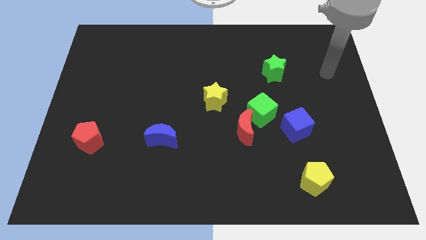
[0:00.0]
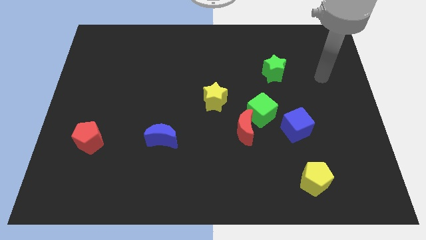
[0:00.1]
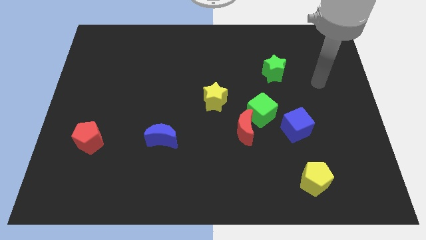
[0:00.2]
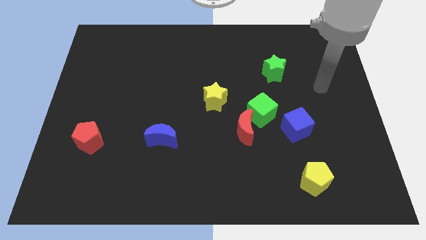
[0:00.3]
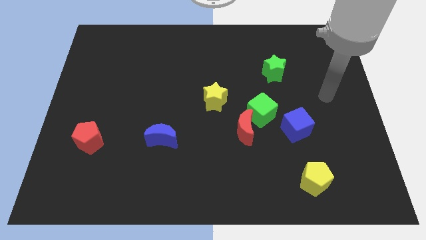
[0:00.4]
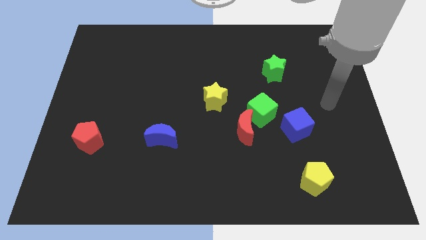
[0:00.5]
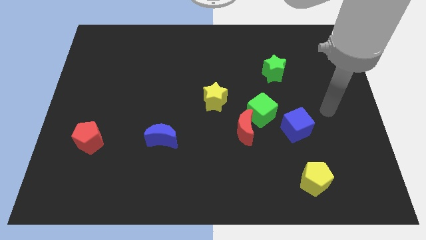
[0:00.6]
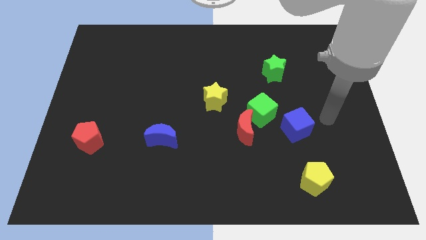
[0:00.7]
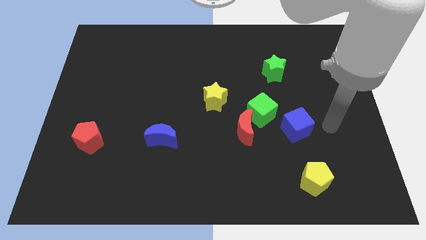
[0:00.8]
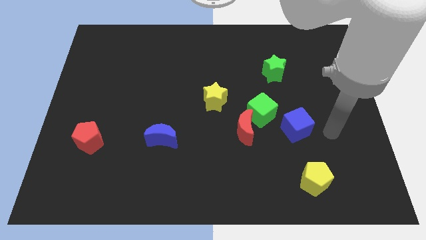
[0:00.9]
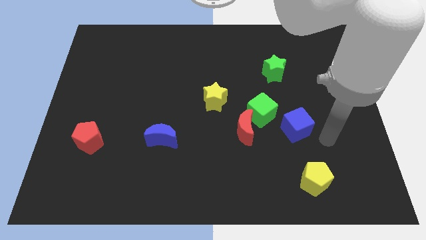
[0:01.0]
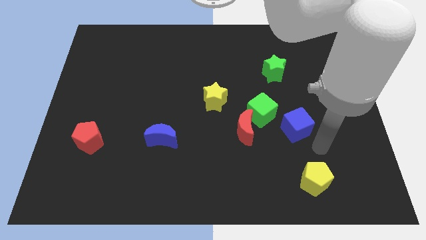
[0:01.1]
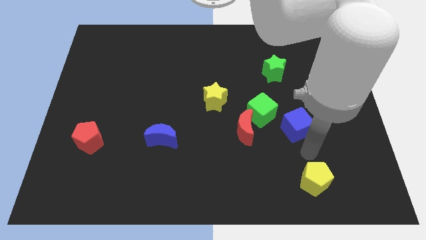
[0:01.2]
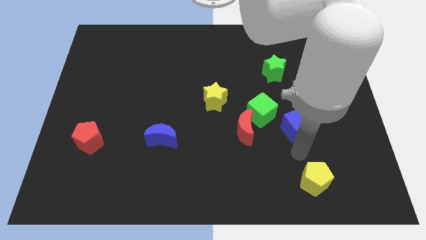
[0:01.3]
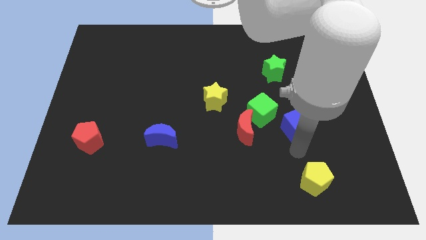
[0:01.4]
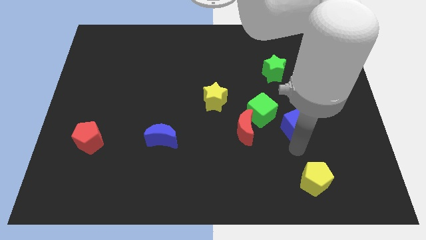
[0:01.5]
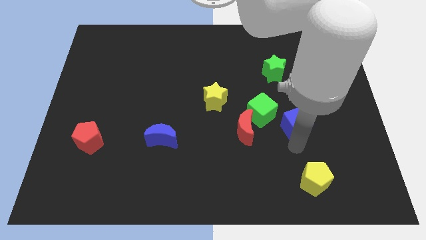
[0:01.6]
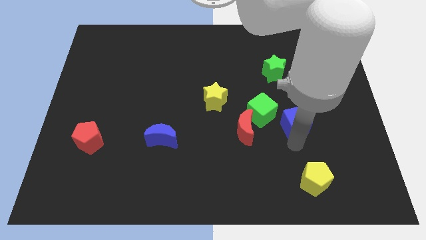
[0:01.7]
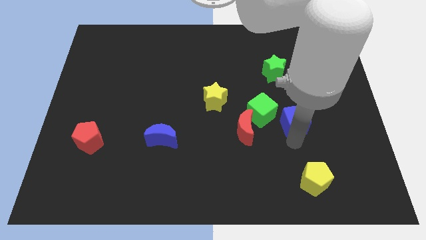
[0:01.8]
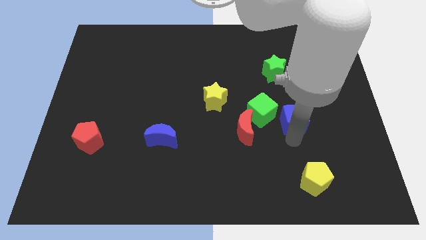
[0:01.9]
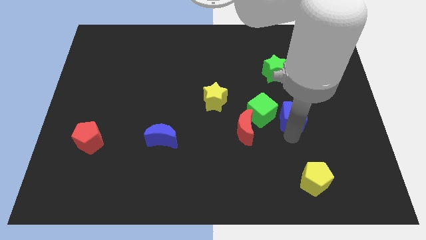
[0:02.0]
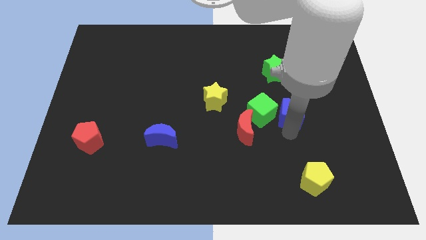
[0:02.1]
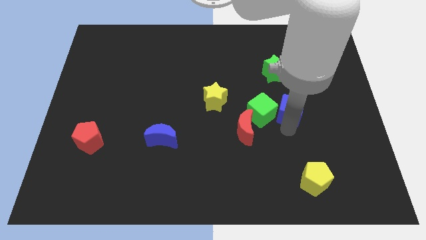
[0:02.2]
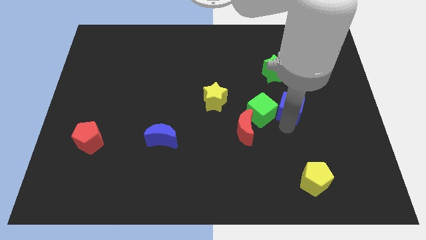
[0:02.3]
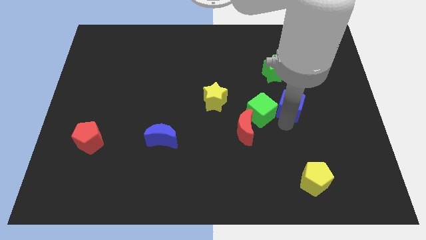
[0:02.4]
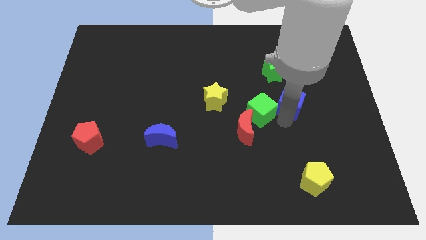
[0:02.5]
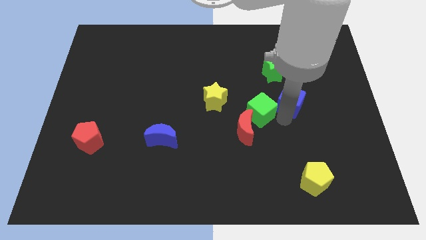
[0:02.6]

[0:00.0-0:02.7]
move the blue cube a little up

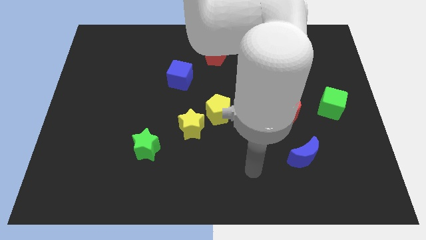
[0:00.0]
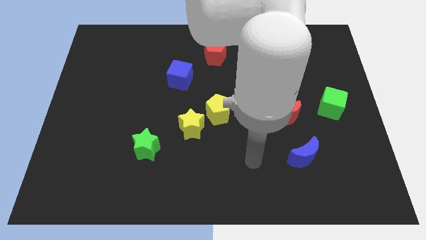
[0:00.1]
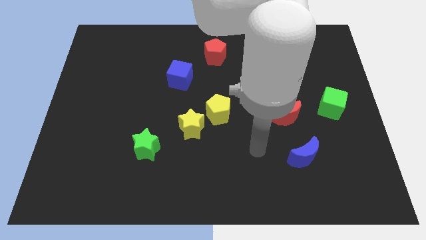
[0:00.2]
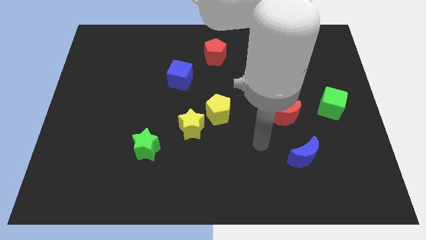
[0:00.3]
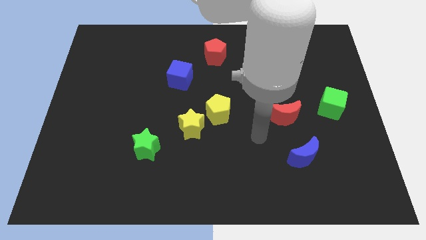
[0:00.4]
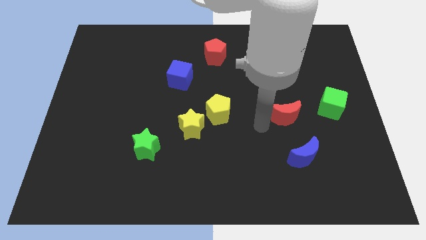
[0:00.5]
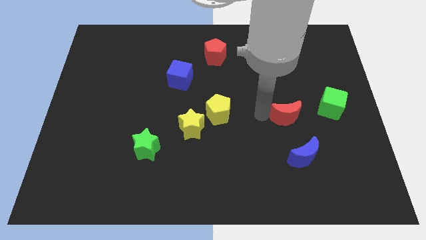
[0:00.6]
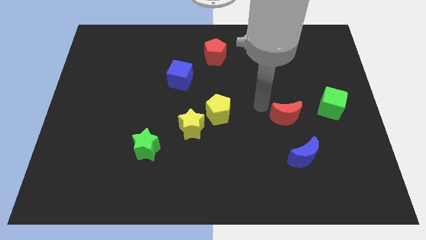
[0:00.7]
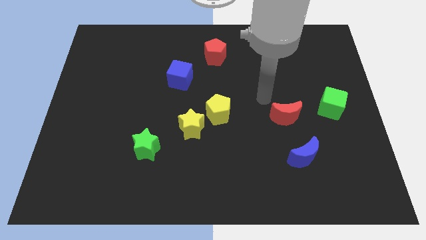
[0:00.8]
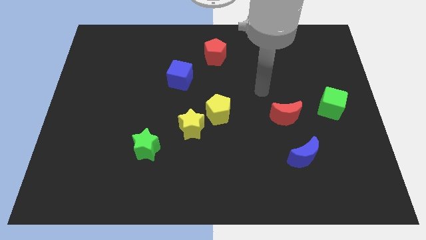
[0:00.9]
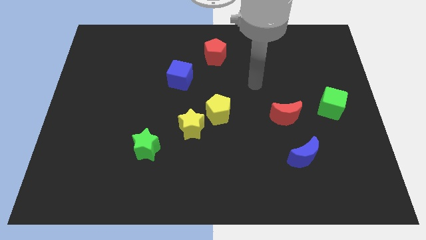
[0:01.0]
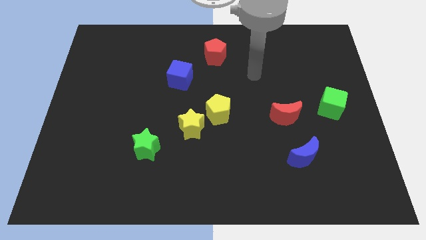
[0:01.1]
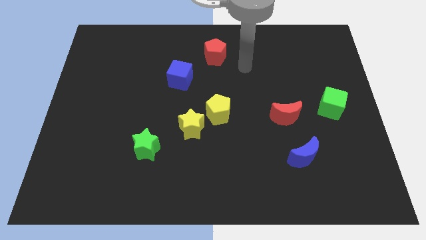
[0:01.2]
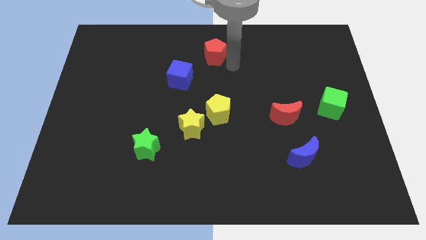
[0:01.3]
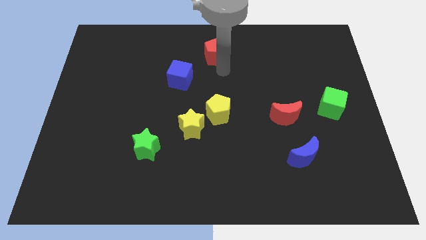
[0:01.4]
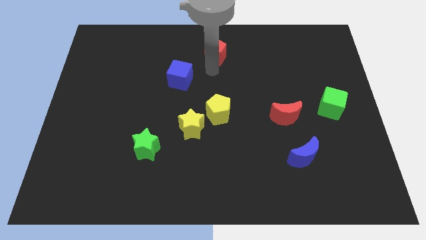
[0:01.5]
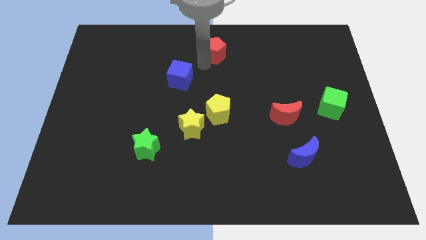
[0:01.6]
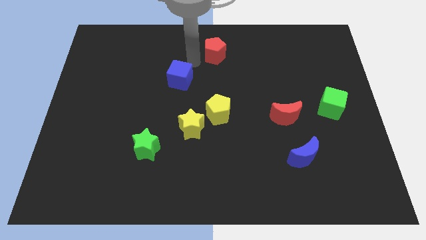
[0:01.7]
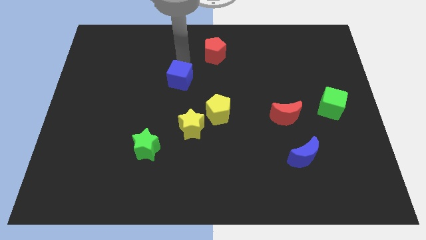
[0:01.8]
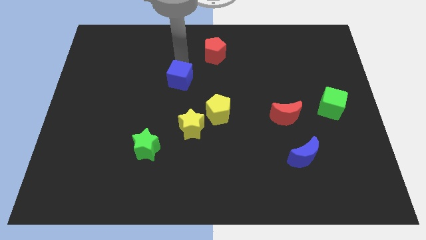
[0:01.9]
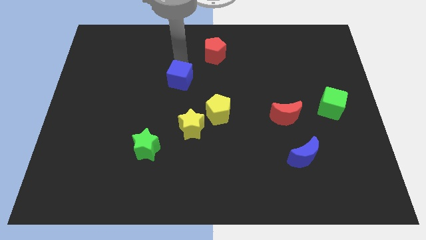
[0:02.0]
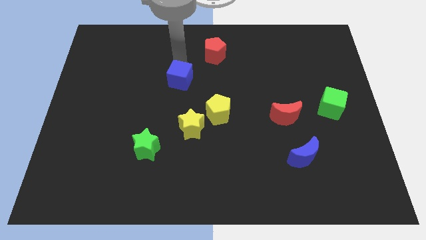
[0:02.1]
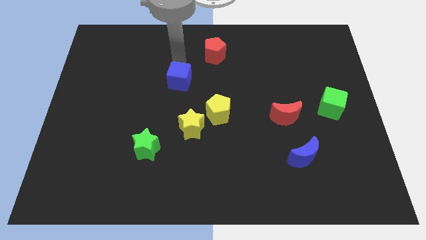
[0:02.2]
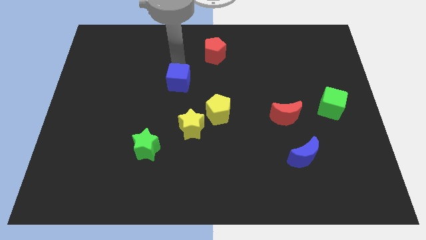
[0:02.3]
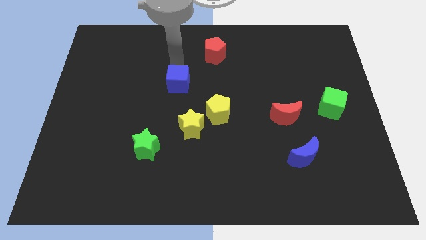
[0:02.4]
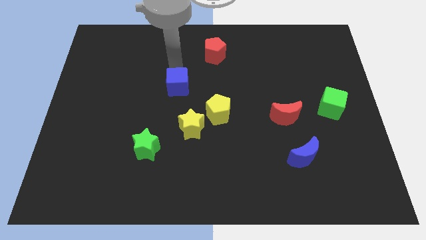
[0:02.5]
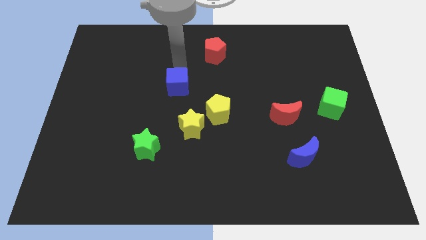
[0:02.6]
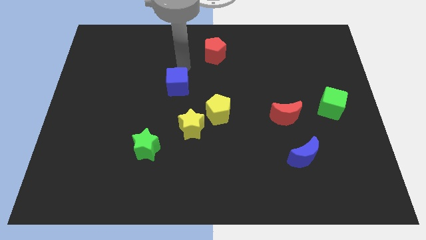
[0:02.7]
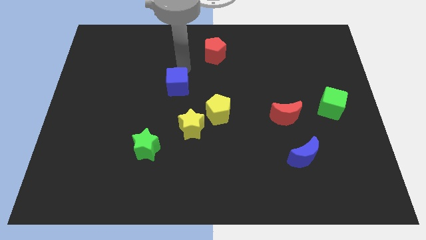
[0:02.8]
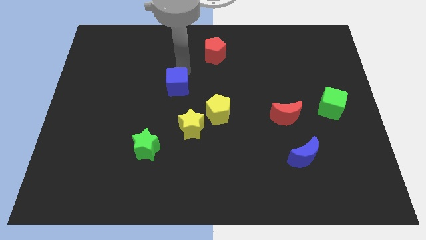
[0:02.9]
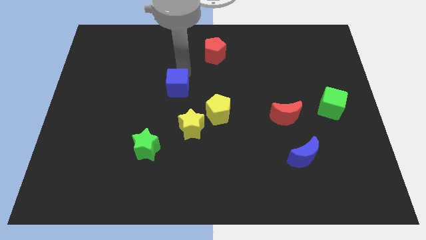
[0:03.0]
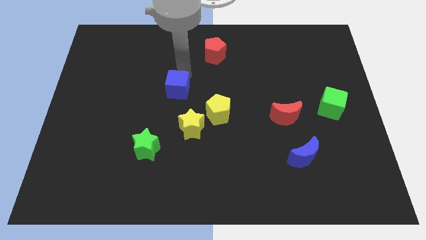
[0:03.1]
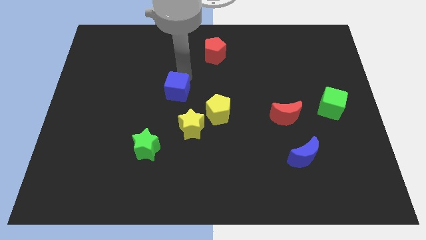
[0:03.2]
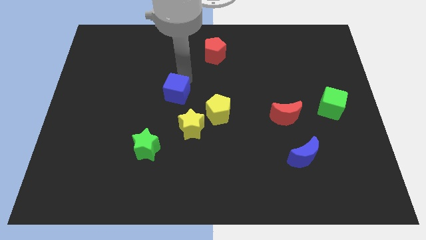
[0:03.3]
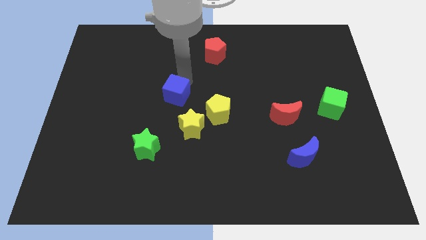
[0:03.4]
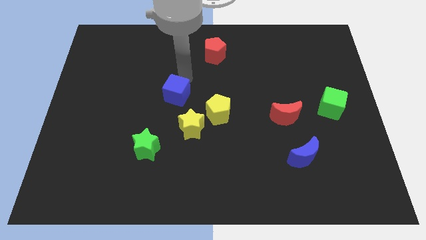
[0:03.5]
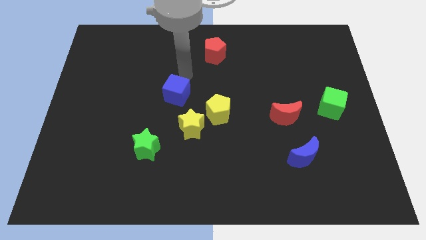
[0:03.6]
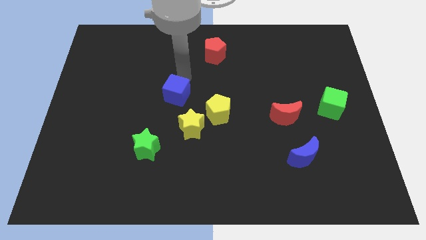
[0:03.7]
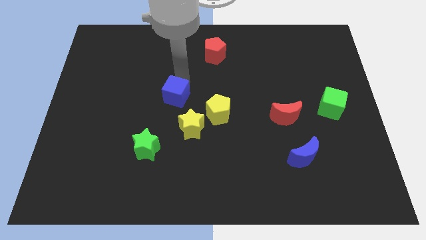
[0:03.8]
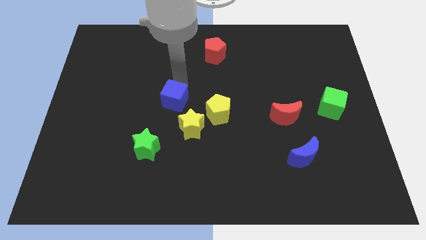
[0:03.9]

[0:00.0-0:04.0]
slide the blue cube a little downwards

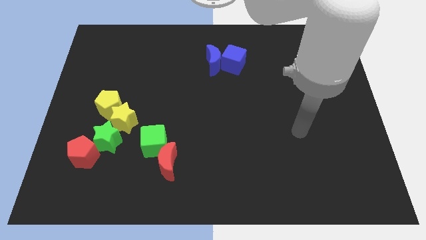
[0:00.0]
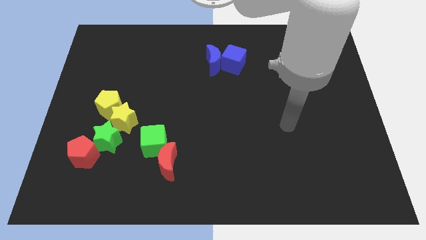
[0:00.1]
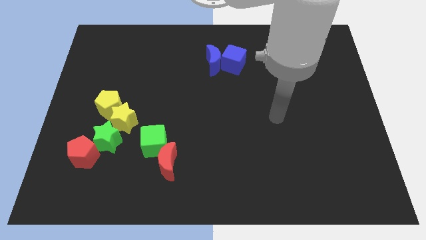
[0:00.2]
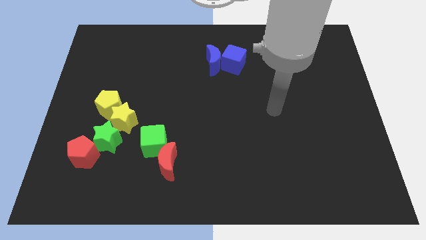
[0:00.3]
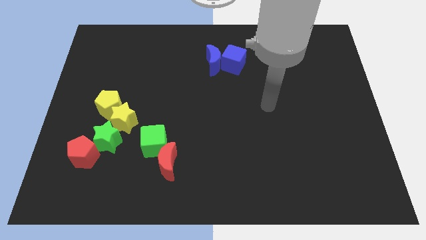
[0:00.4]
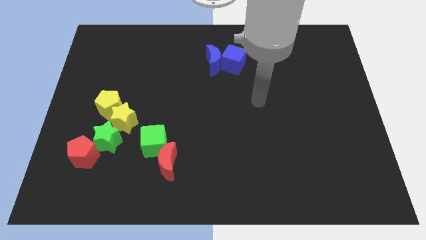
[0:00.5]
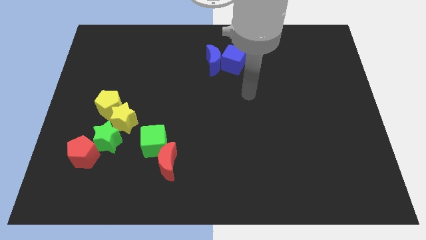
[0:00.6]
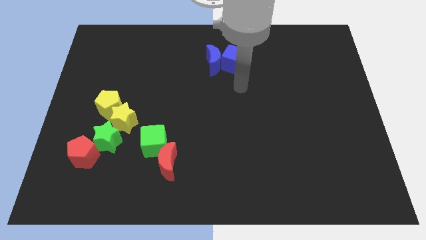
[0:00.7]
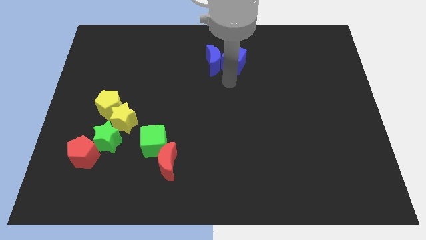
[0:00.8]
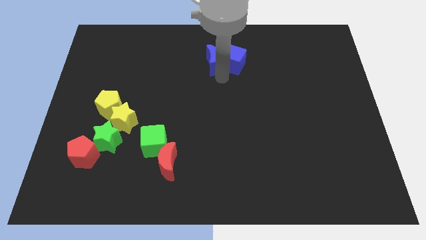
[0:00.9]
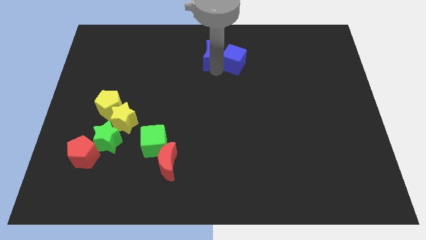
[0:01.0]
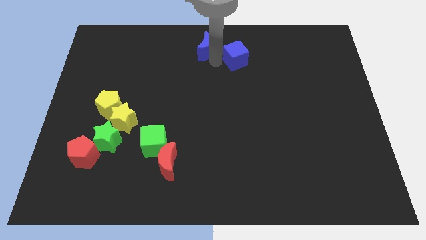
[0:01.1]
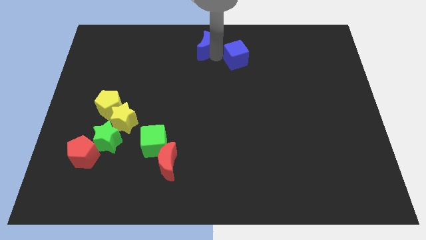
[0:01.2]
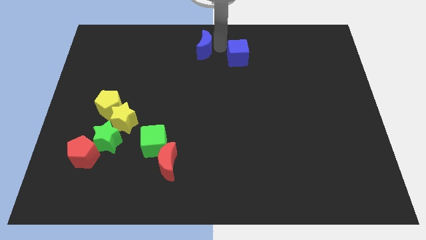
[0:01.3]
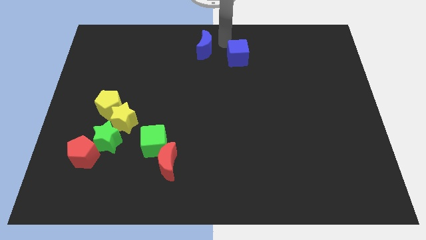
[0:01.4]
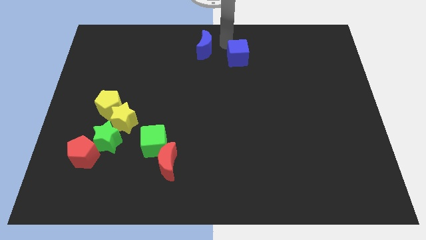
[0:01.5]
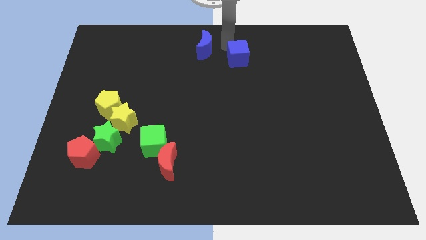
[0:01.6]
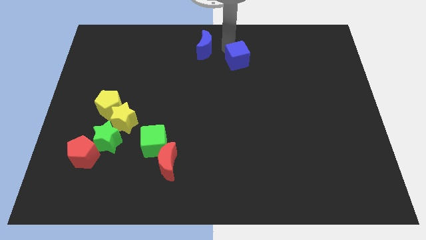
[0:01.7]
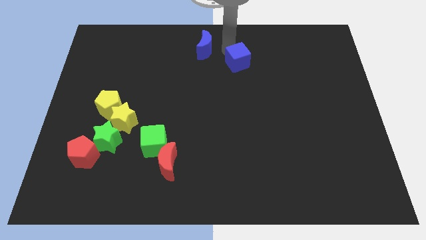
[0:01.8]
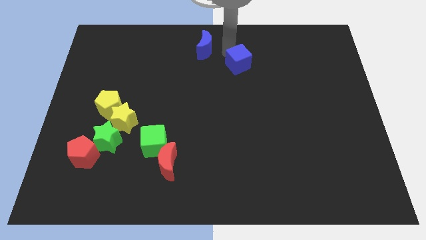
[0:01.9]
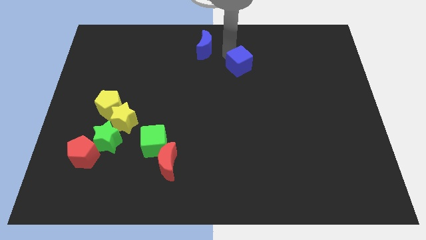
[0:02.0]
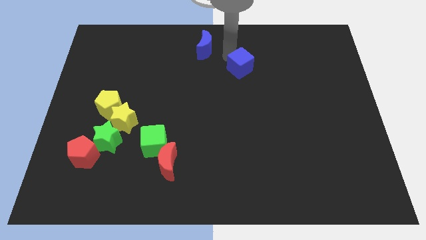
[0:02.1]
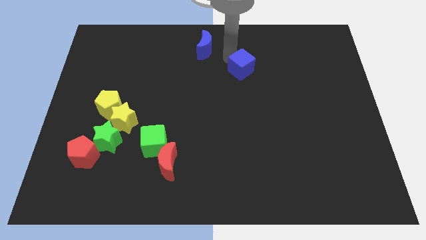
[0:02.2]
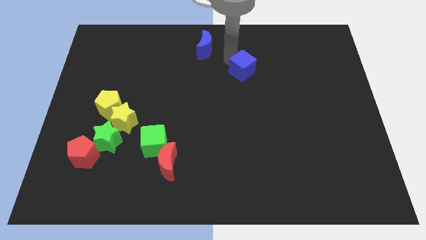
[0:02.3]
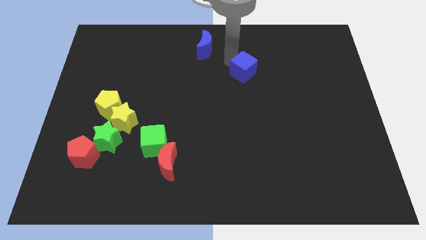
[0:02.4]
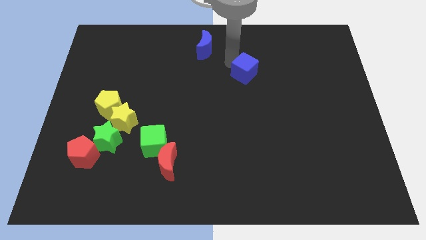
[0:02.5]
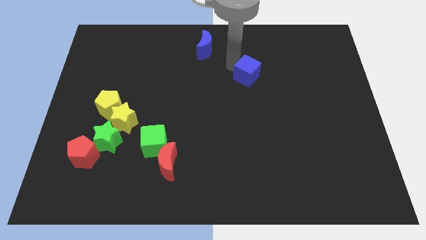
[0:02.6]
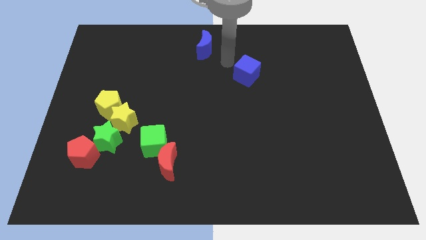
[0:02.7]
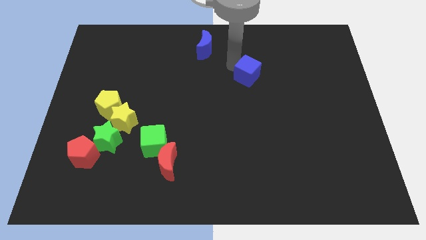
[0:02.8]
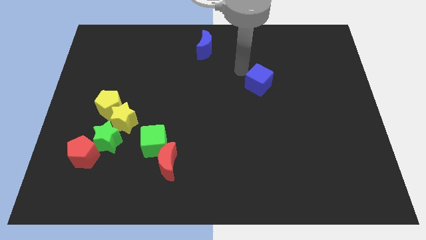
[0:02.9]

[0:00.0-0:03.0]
move the blue cube down and right diagonally a bit
